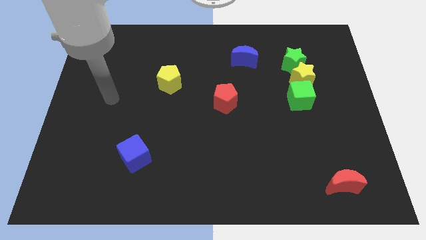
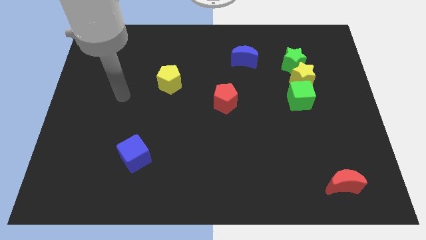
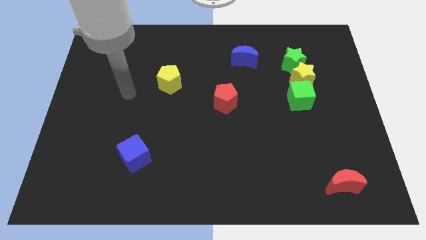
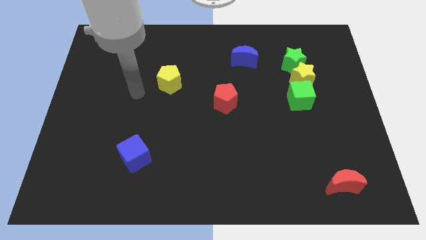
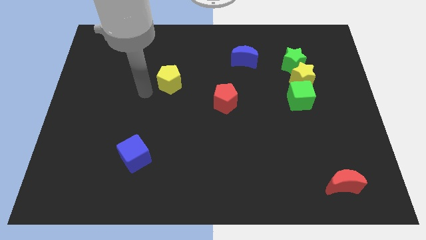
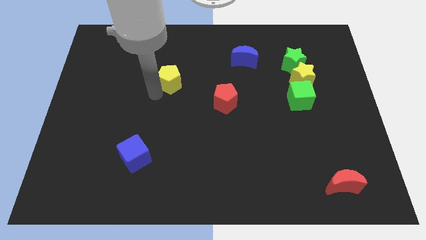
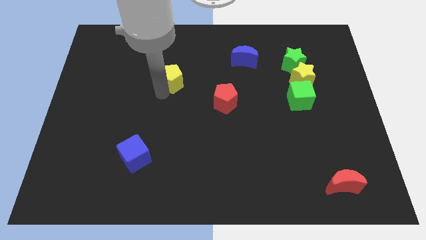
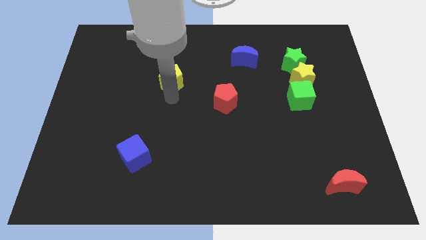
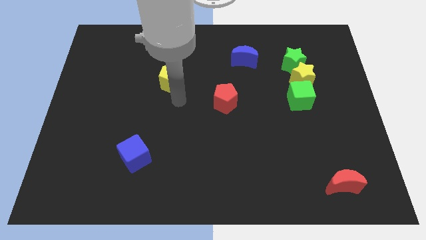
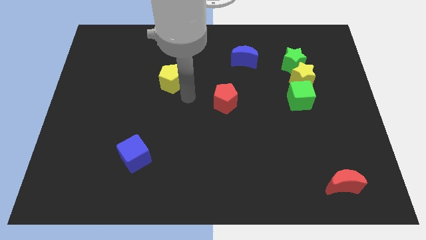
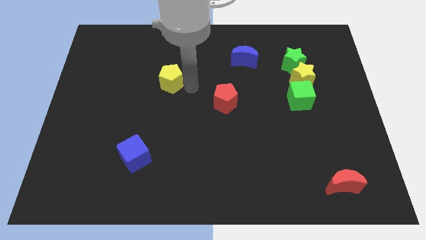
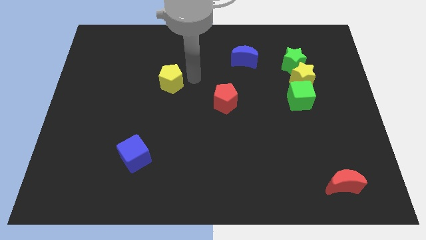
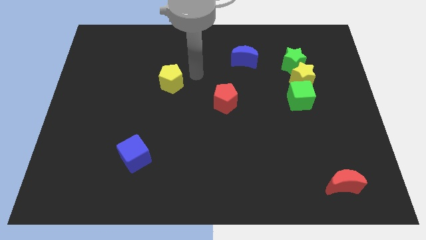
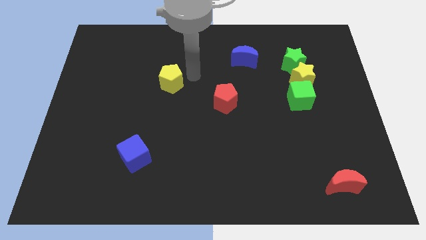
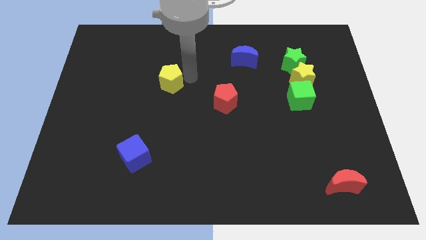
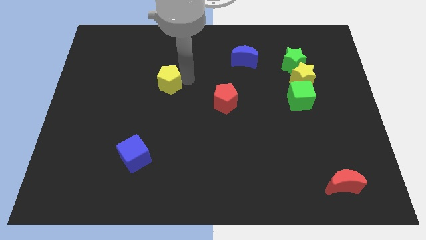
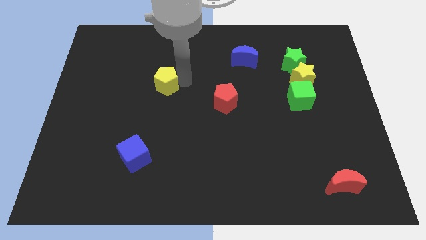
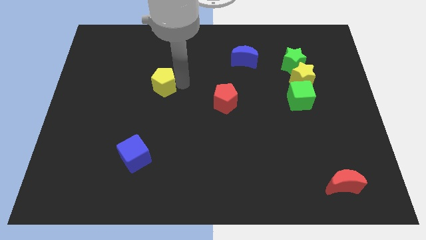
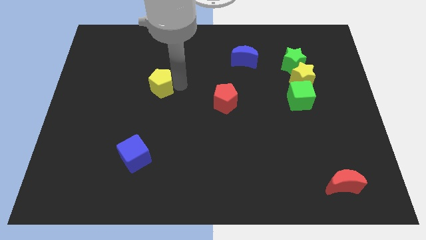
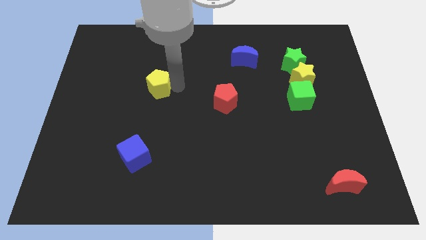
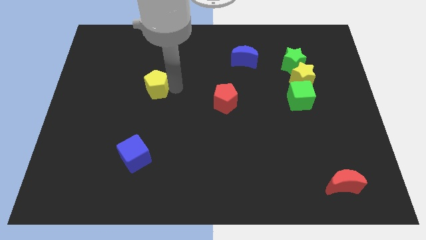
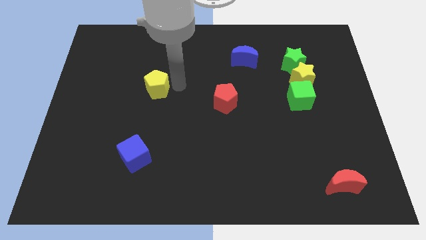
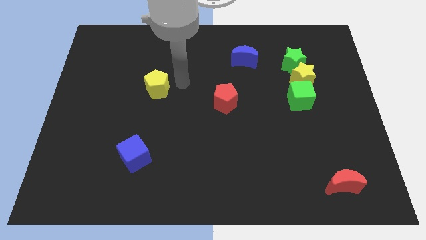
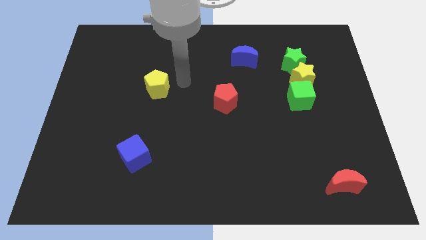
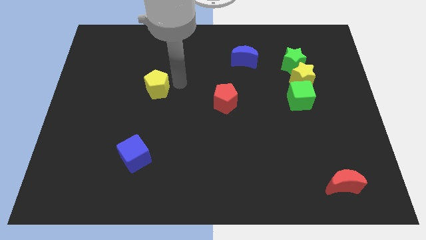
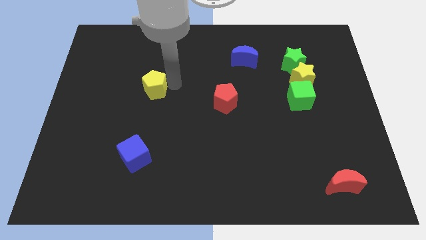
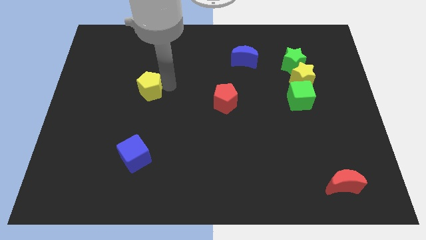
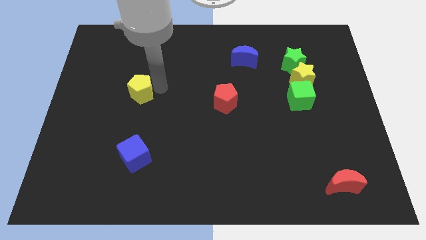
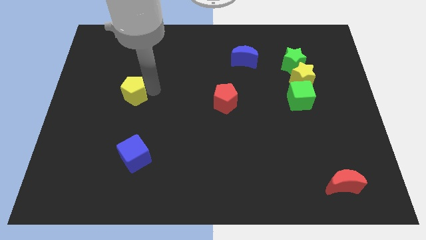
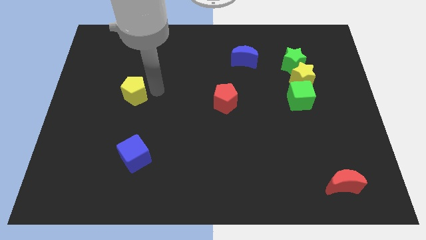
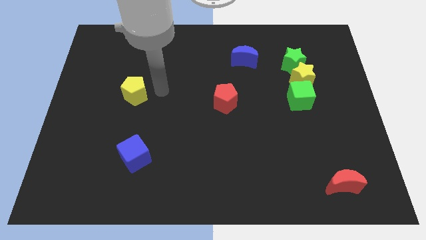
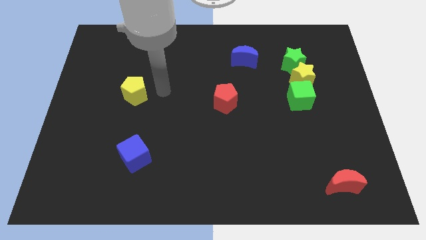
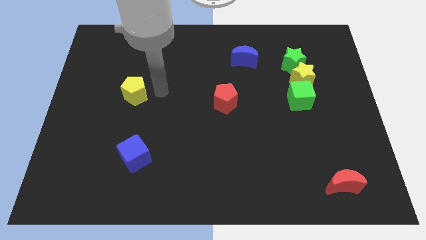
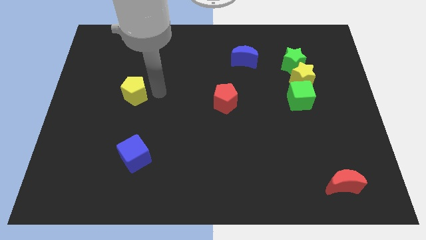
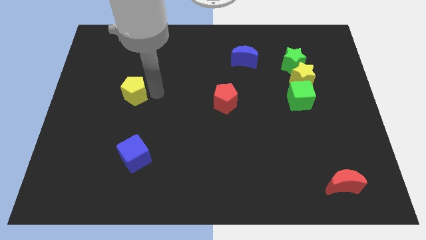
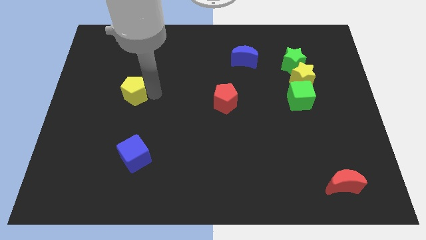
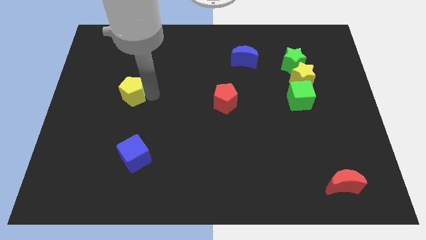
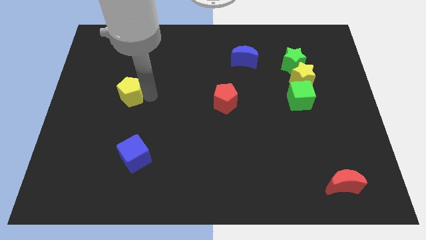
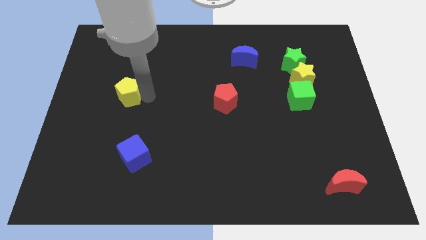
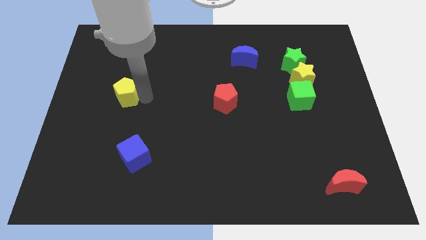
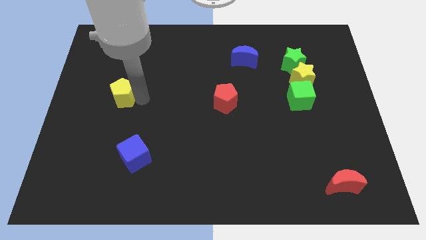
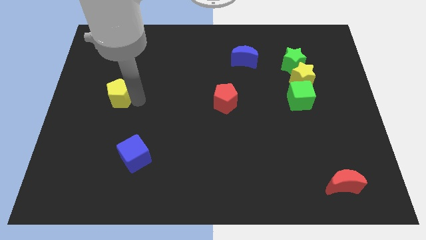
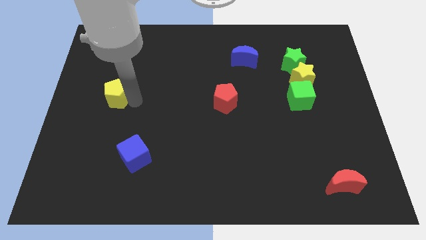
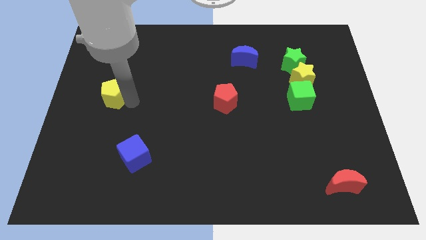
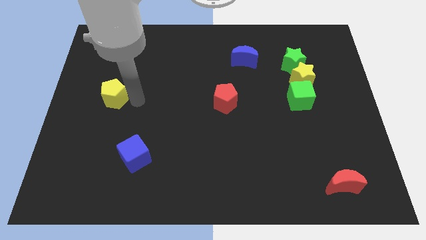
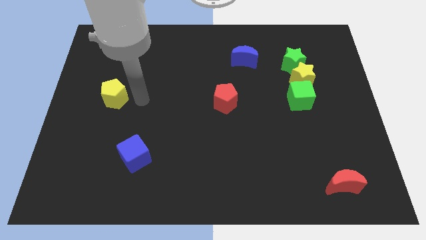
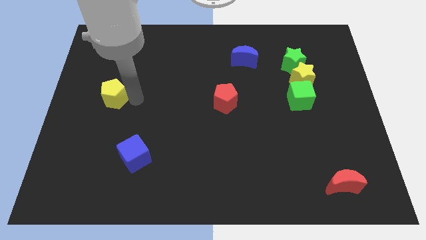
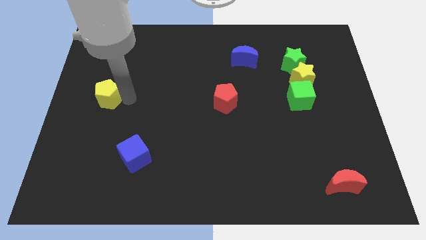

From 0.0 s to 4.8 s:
slide the yellow pentagon to the left side of the board

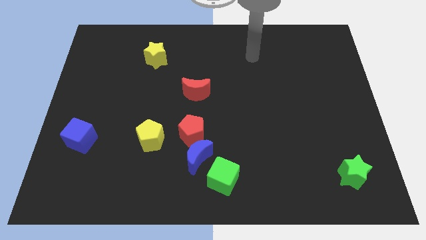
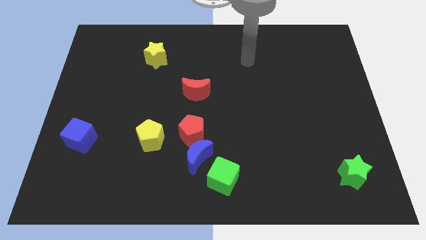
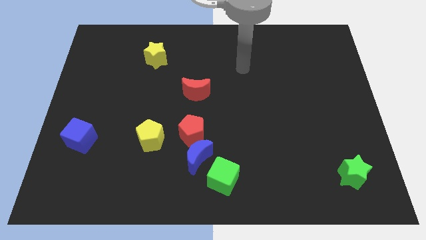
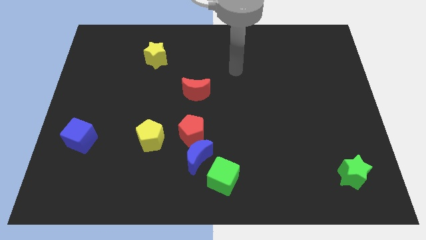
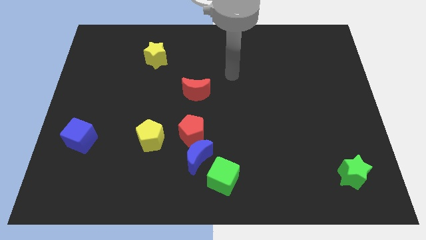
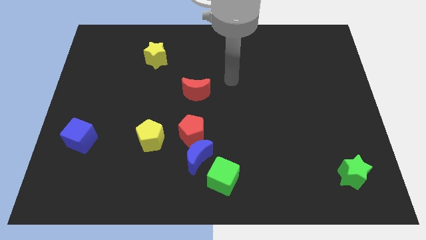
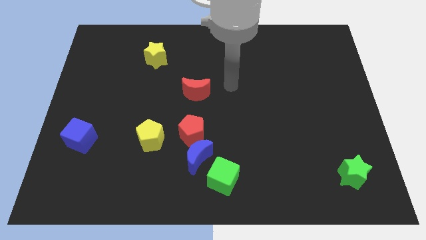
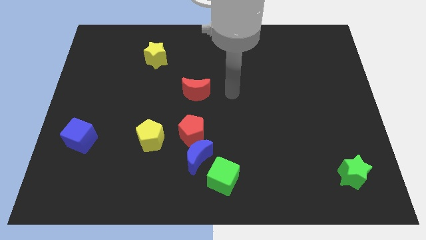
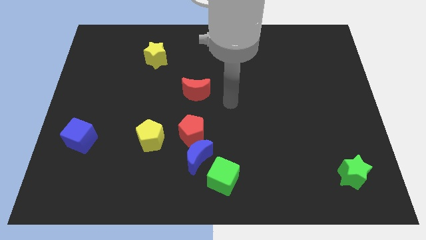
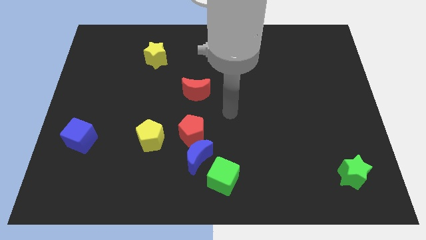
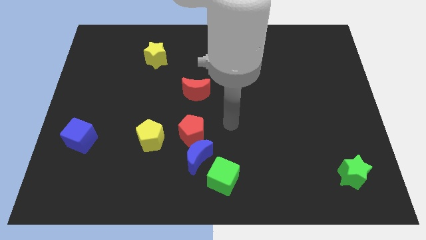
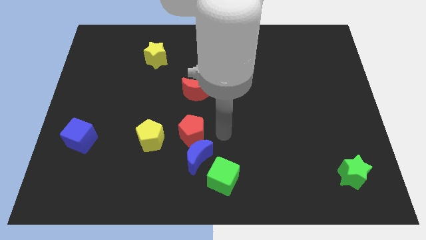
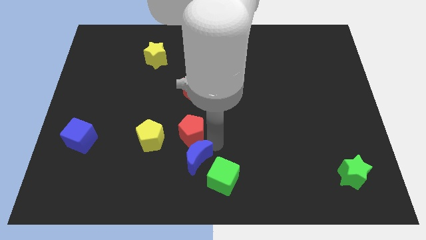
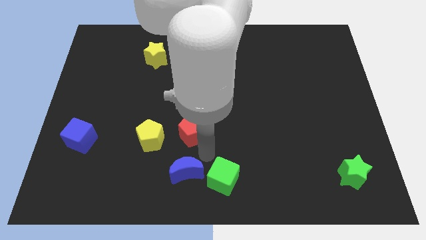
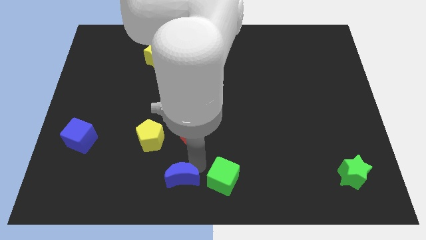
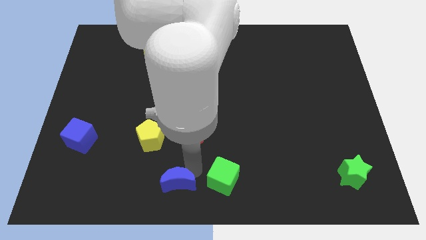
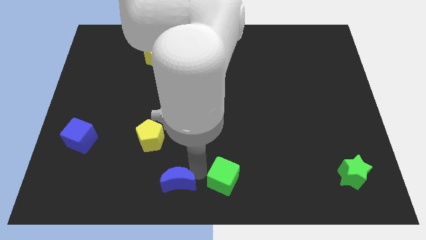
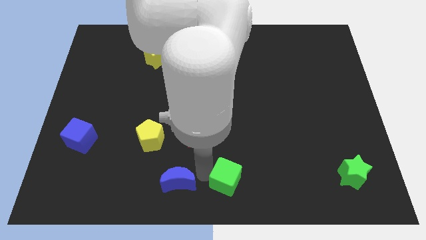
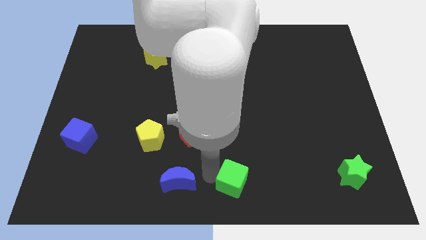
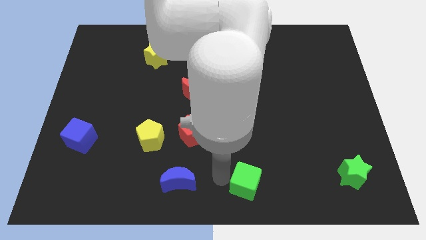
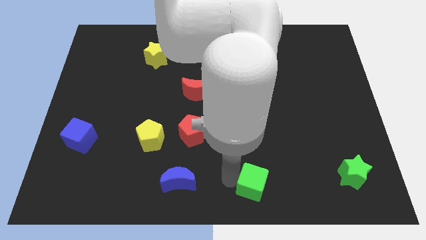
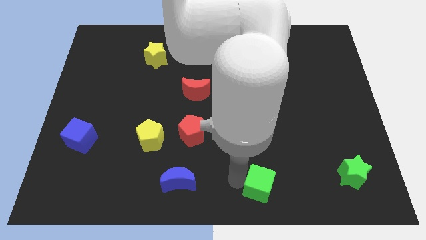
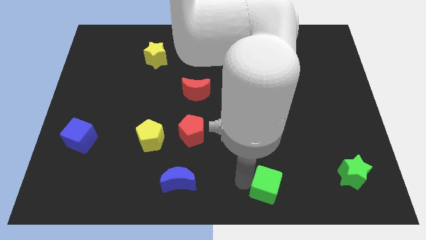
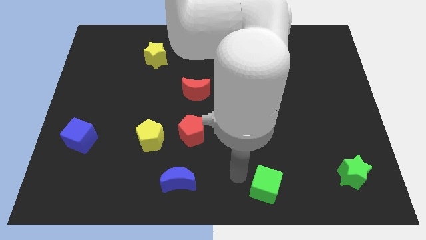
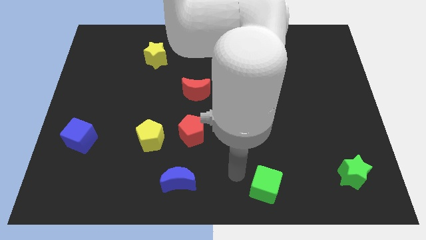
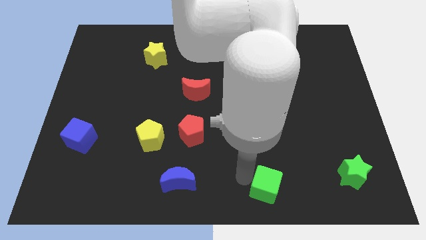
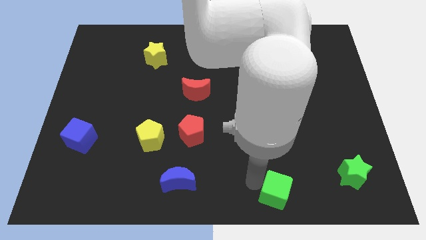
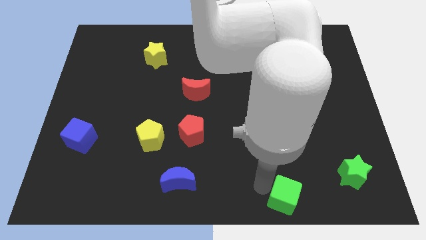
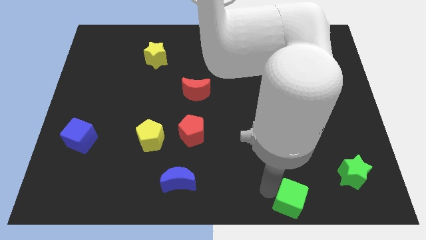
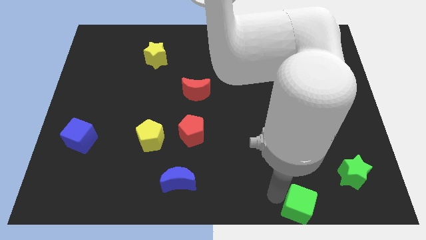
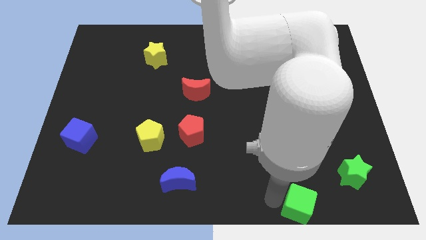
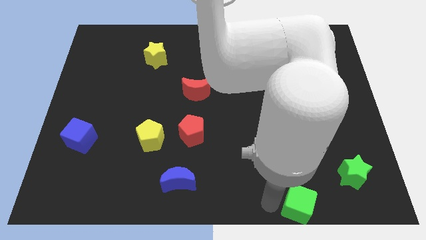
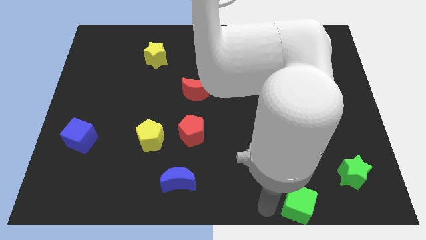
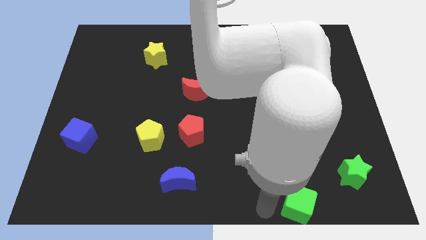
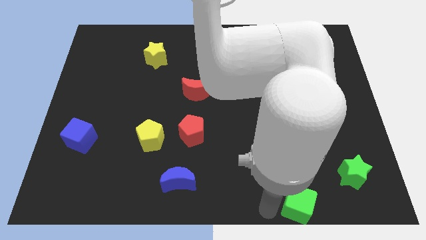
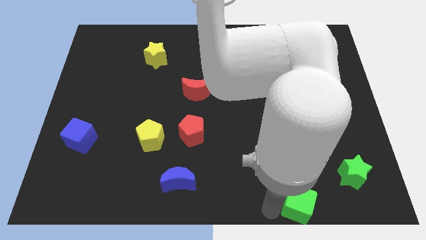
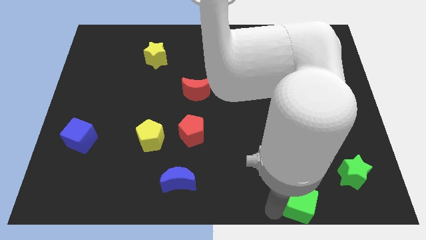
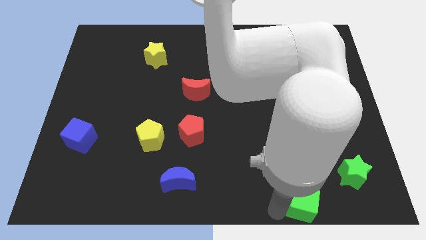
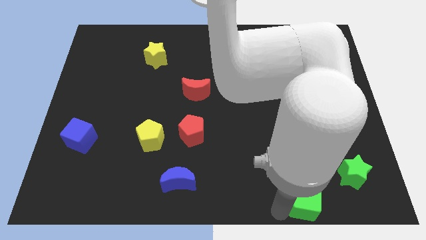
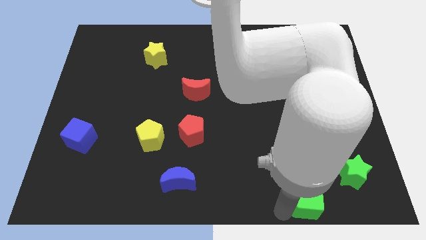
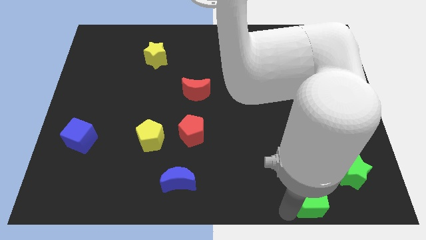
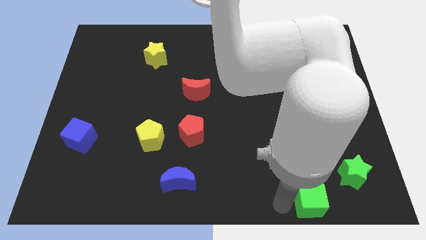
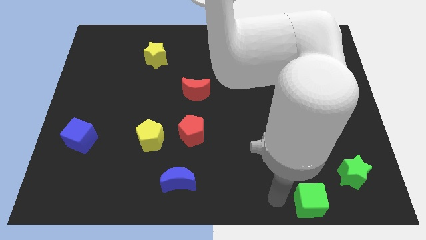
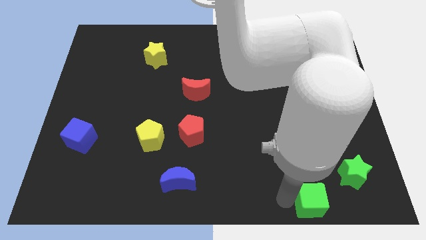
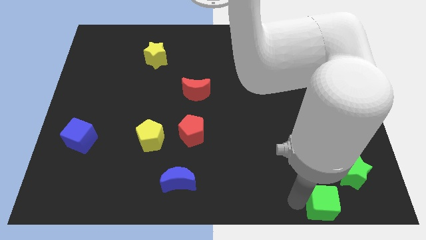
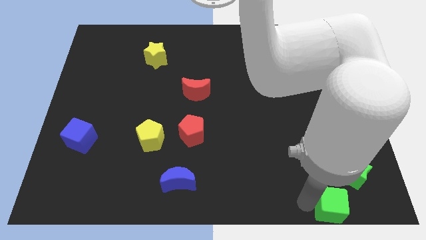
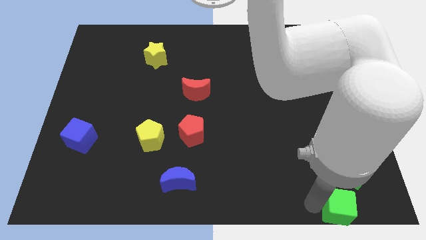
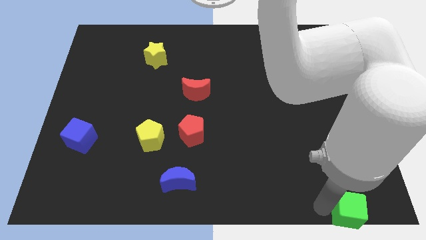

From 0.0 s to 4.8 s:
put the green cube to the bottom right of the board
